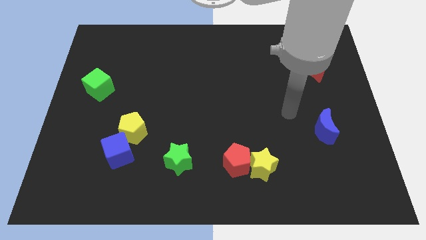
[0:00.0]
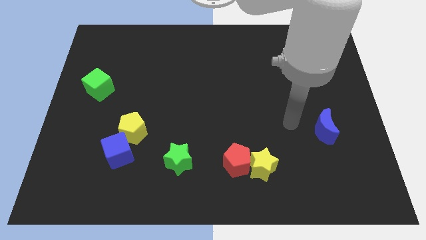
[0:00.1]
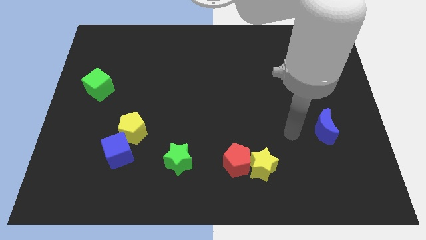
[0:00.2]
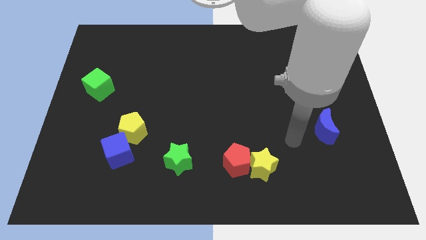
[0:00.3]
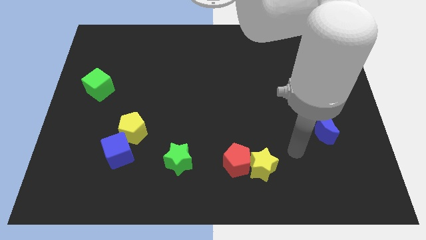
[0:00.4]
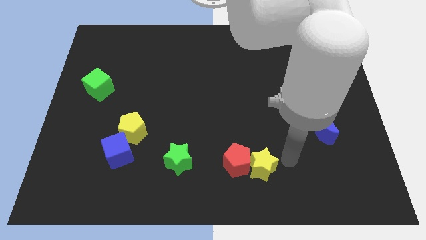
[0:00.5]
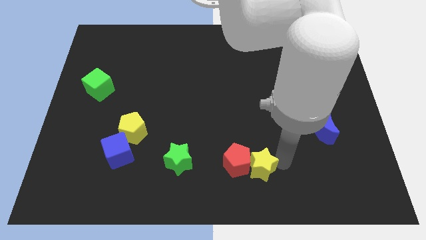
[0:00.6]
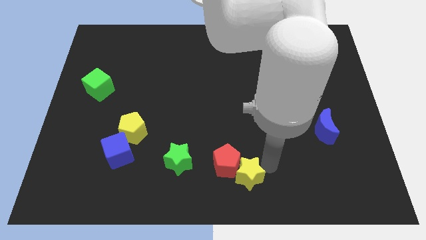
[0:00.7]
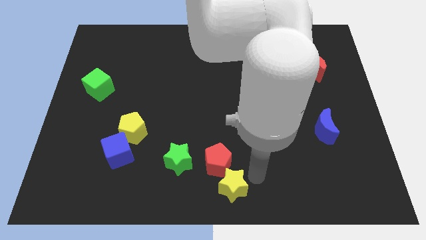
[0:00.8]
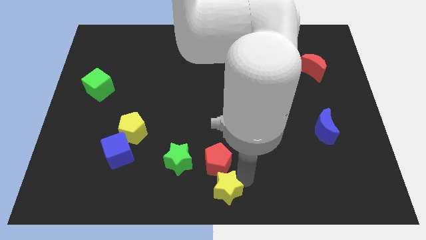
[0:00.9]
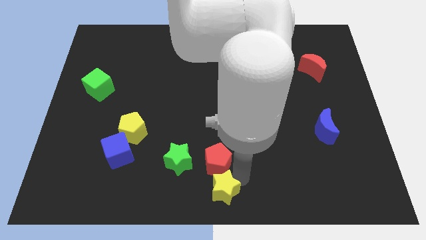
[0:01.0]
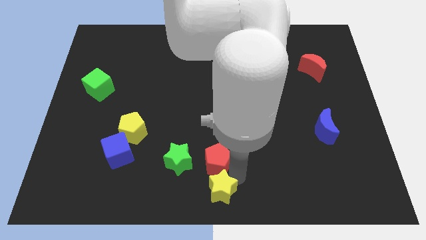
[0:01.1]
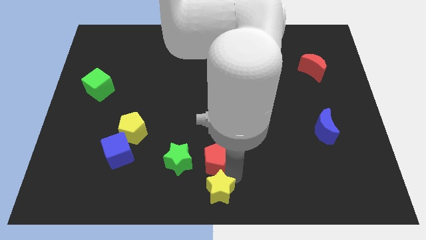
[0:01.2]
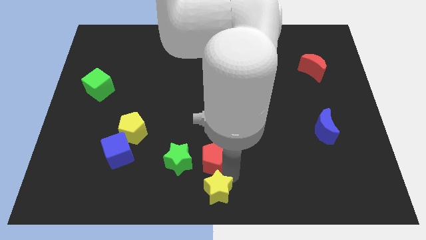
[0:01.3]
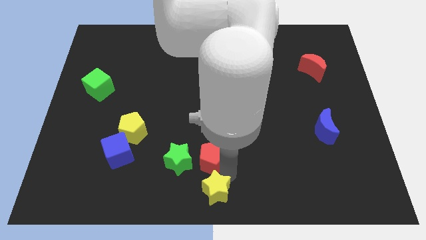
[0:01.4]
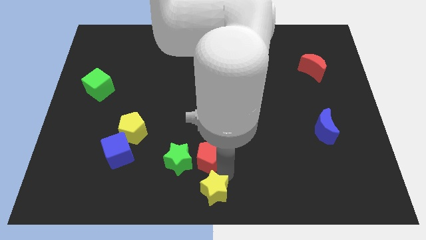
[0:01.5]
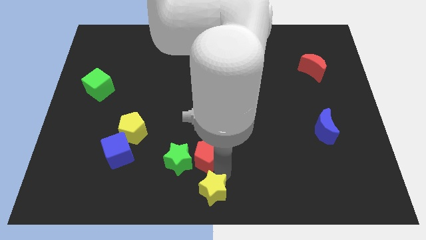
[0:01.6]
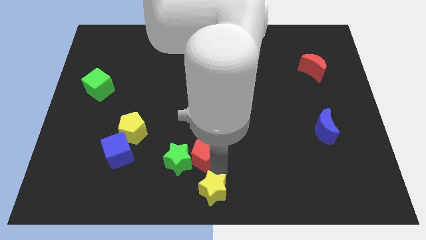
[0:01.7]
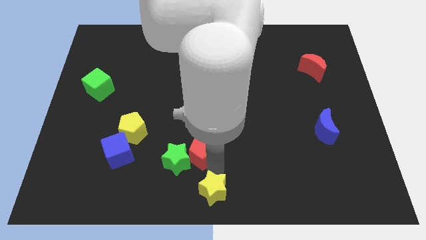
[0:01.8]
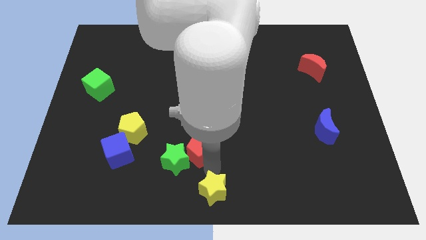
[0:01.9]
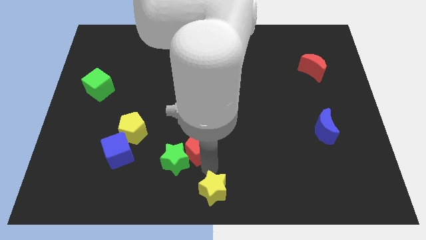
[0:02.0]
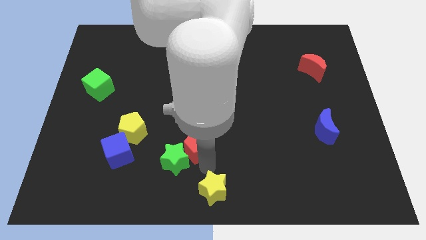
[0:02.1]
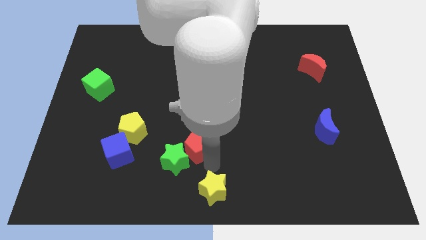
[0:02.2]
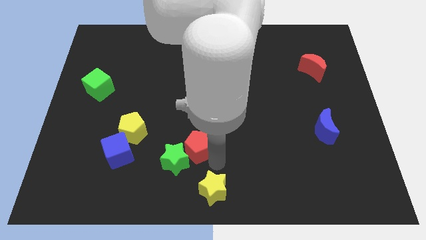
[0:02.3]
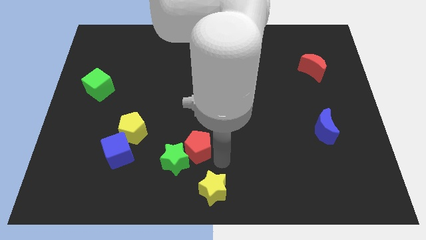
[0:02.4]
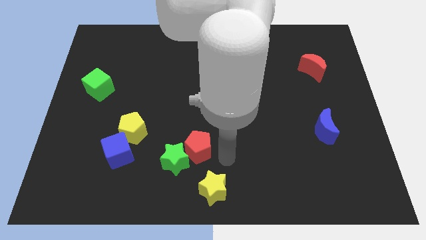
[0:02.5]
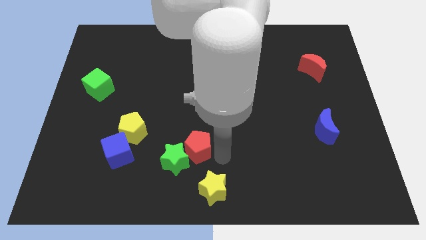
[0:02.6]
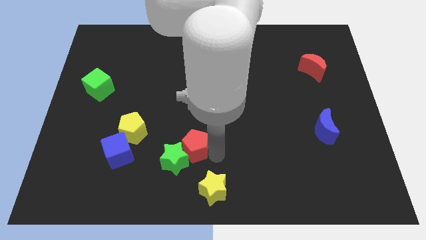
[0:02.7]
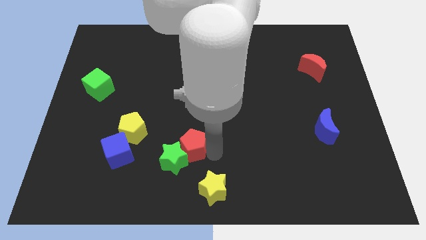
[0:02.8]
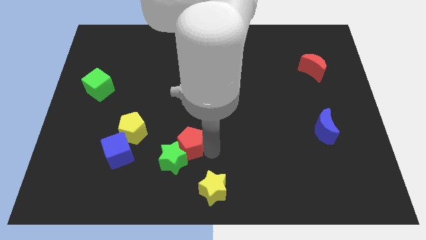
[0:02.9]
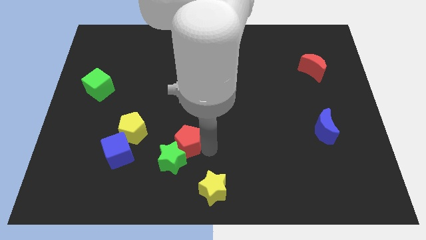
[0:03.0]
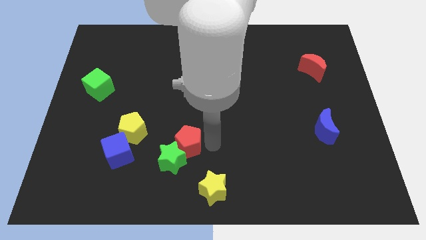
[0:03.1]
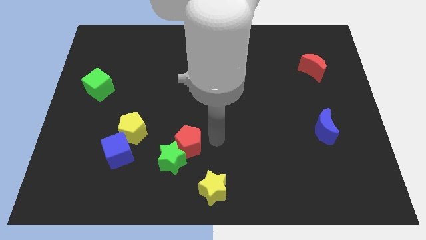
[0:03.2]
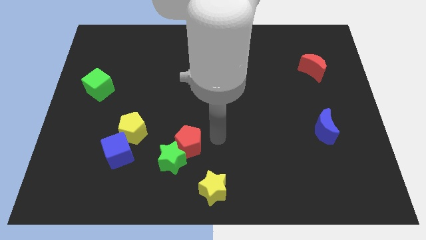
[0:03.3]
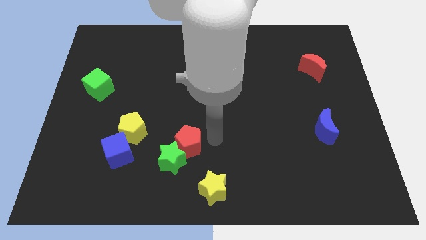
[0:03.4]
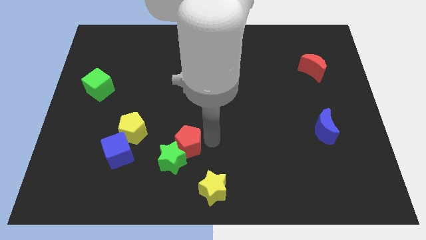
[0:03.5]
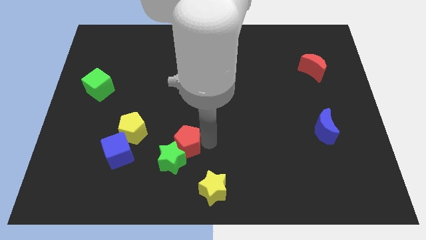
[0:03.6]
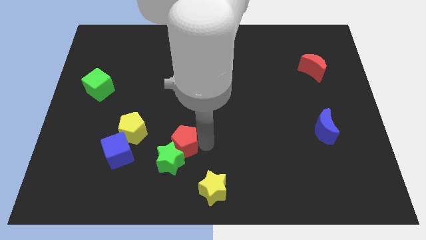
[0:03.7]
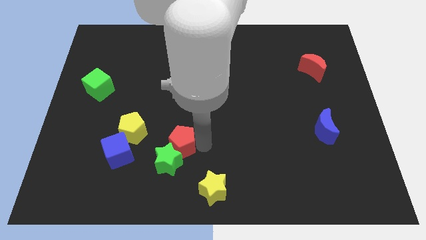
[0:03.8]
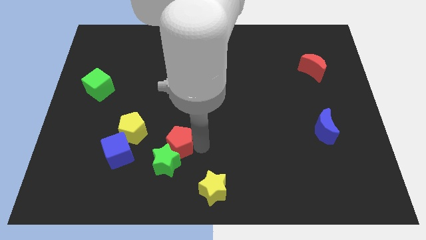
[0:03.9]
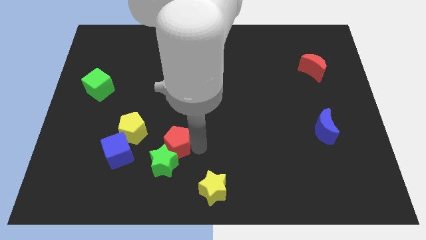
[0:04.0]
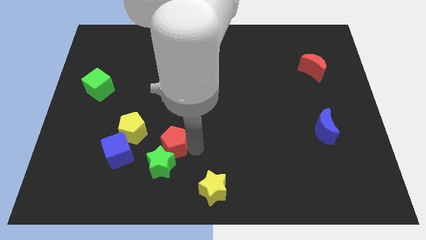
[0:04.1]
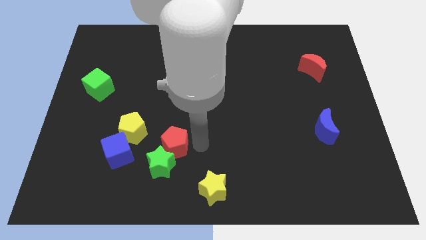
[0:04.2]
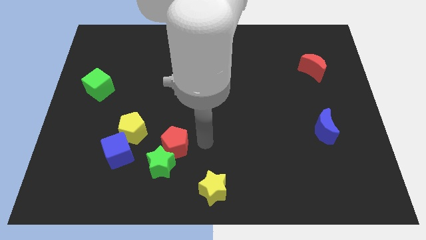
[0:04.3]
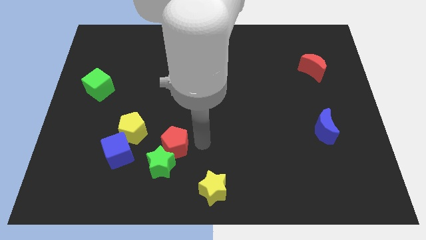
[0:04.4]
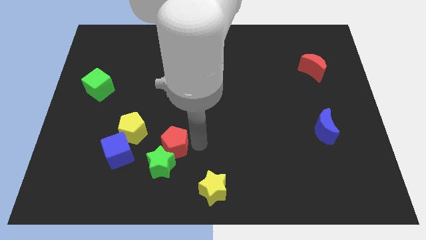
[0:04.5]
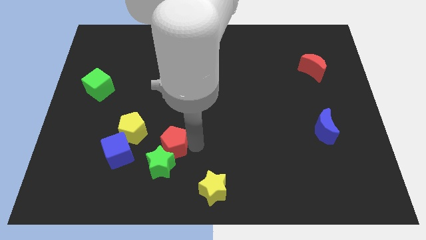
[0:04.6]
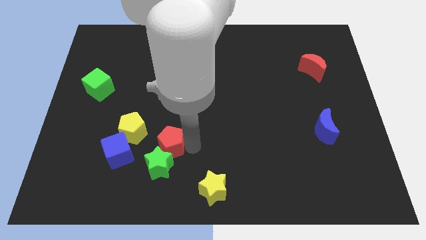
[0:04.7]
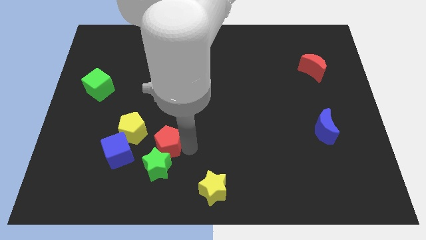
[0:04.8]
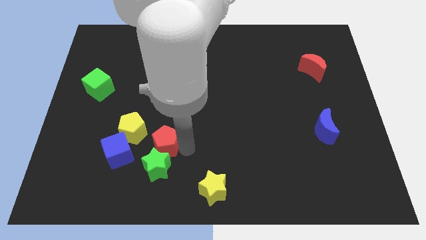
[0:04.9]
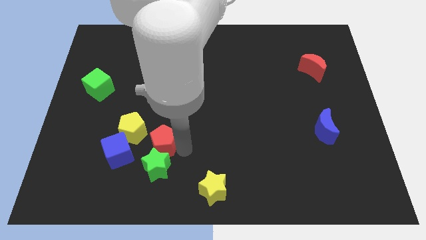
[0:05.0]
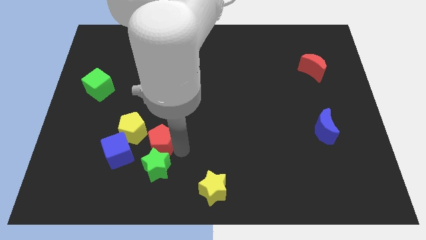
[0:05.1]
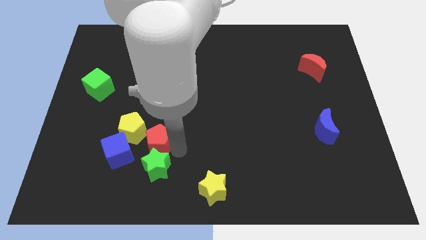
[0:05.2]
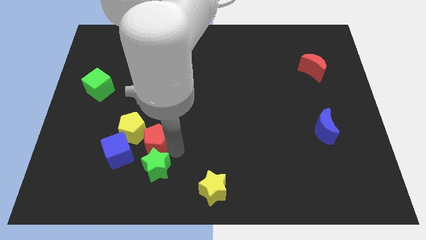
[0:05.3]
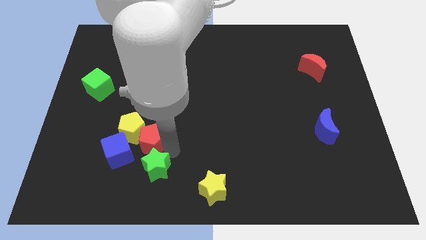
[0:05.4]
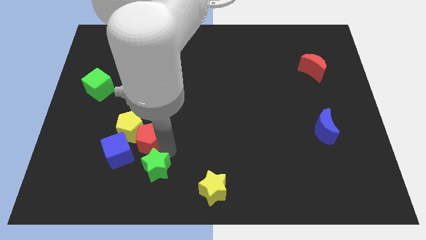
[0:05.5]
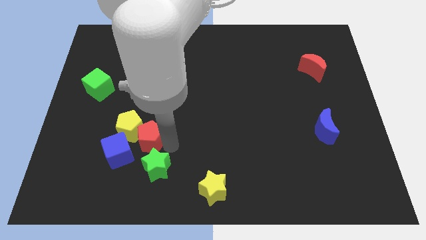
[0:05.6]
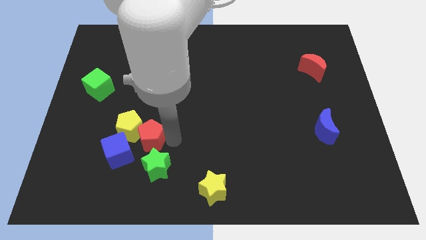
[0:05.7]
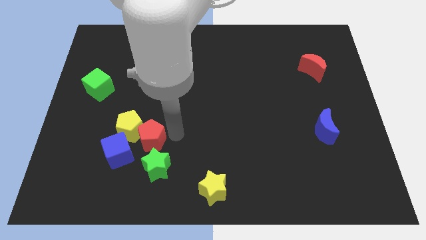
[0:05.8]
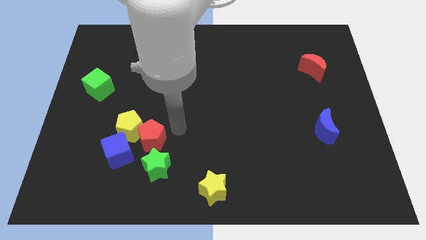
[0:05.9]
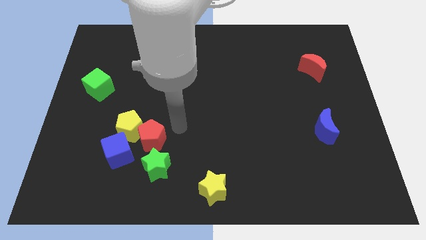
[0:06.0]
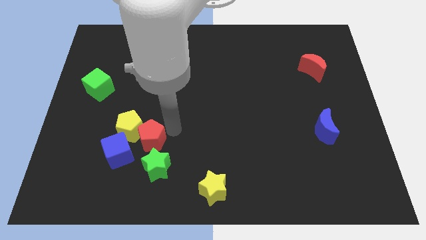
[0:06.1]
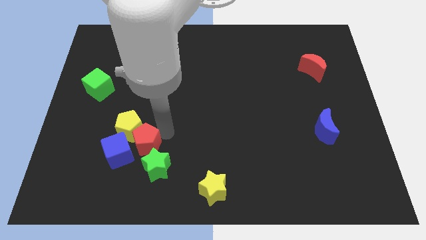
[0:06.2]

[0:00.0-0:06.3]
put the red pentagon next to the blue cube

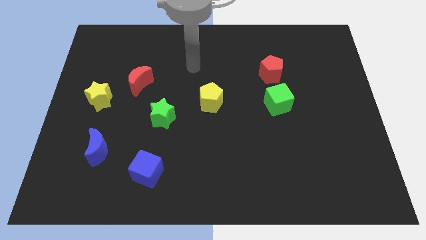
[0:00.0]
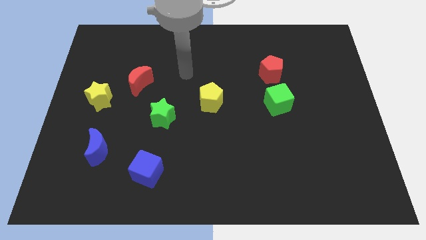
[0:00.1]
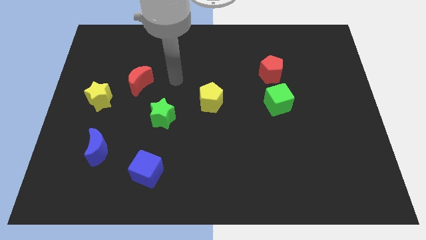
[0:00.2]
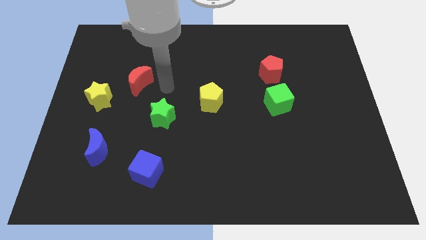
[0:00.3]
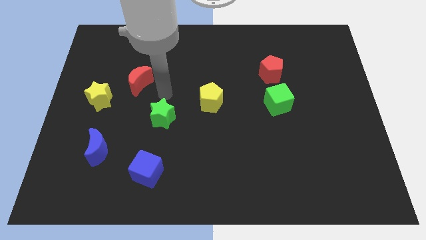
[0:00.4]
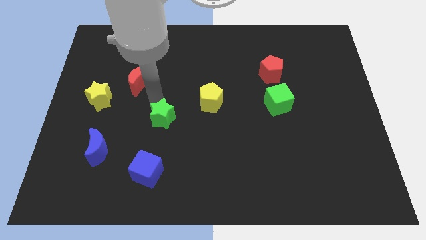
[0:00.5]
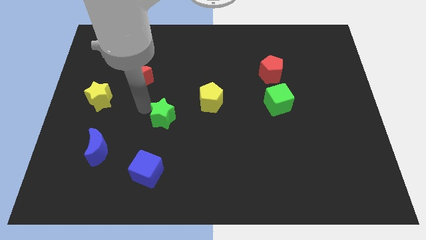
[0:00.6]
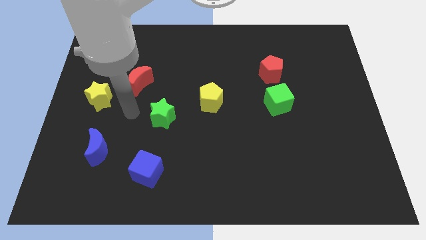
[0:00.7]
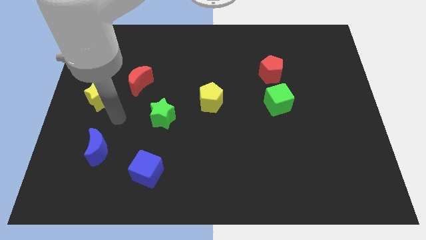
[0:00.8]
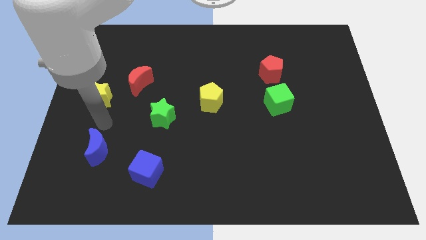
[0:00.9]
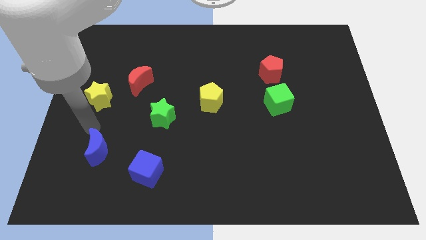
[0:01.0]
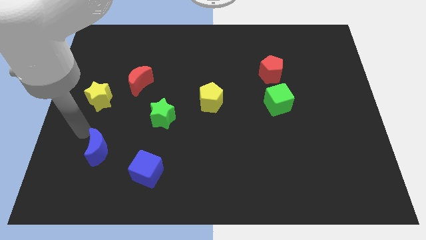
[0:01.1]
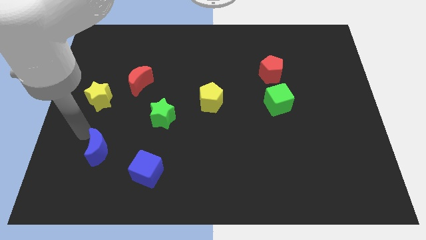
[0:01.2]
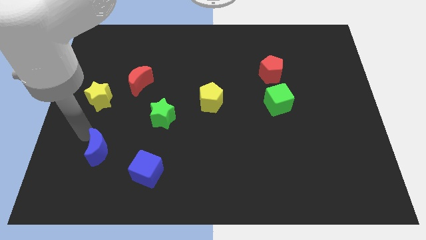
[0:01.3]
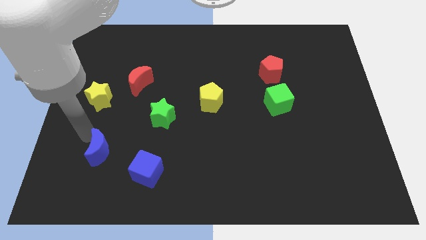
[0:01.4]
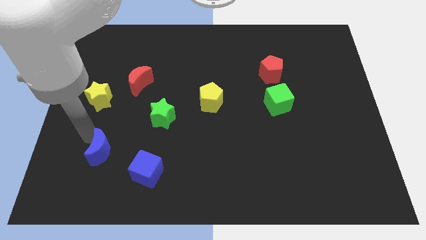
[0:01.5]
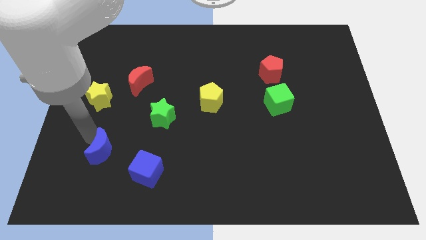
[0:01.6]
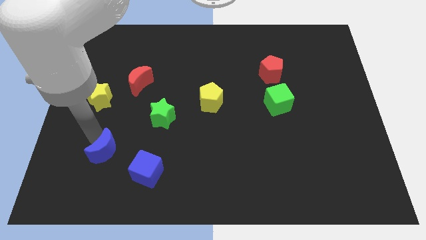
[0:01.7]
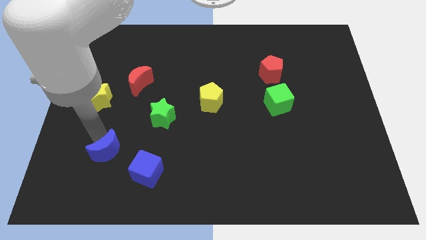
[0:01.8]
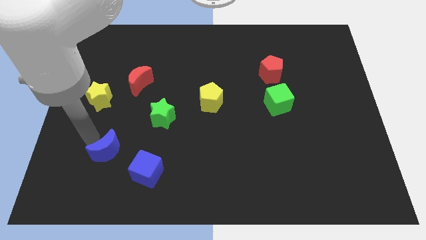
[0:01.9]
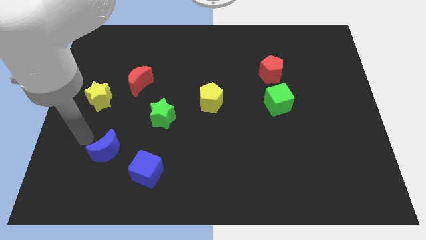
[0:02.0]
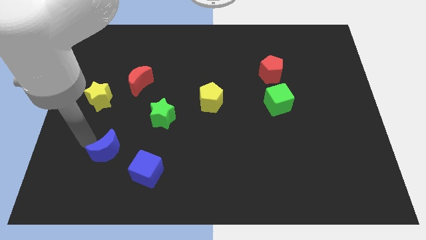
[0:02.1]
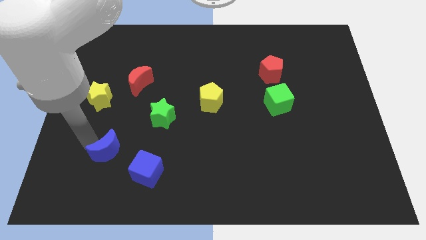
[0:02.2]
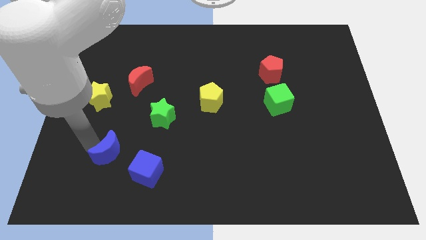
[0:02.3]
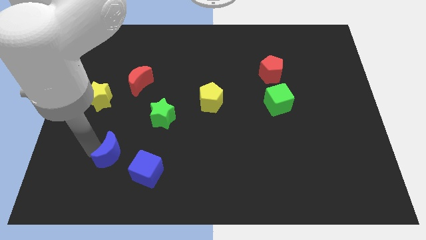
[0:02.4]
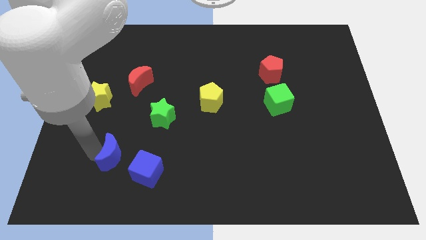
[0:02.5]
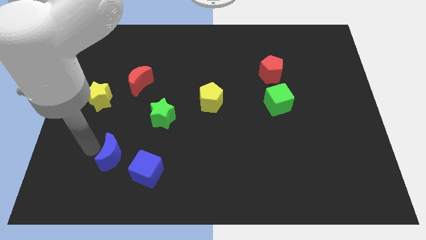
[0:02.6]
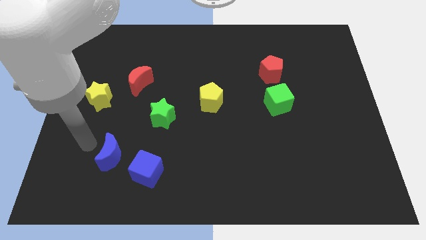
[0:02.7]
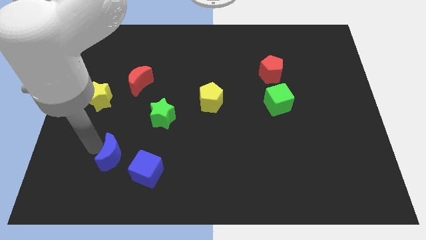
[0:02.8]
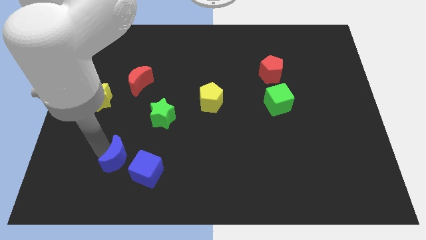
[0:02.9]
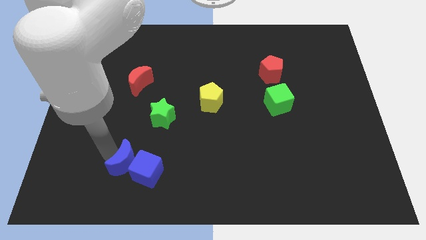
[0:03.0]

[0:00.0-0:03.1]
slide the blue moon close to the blue cube
